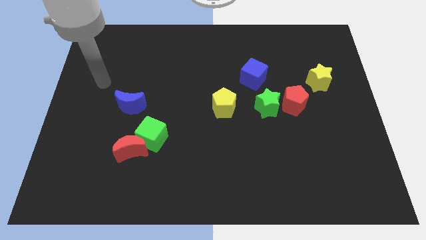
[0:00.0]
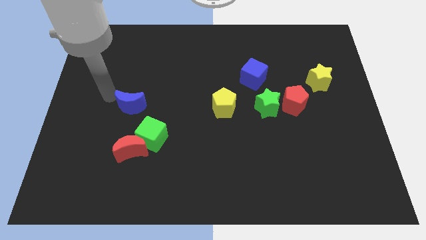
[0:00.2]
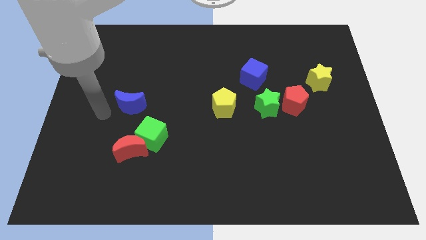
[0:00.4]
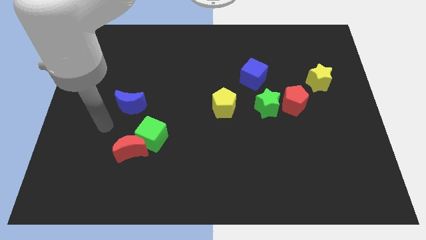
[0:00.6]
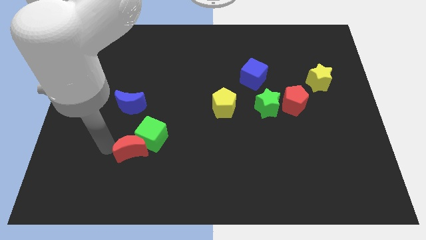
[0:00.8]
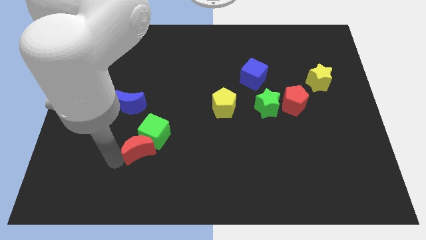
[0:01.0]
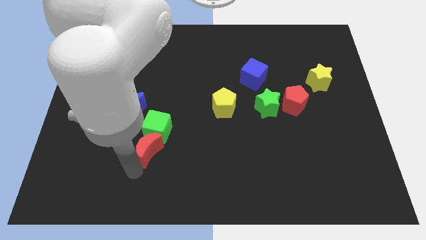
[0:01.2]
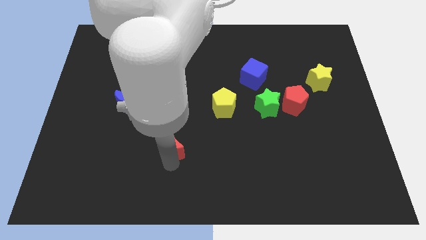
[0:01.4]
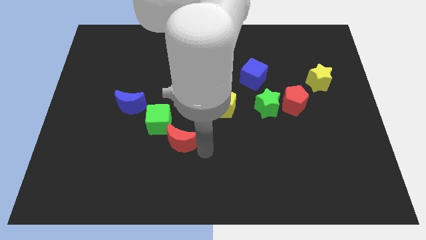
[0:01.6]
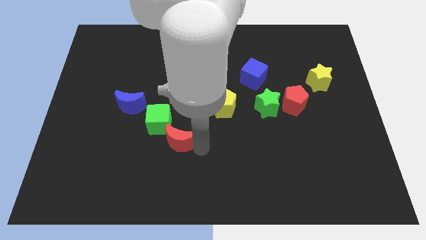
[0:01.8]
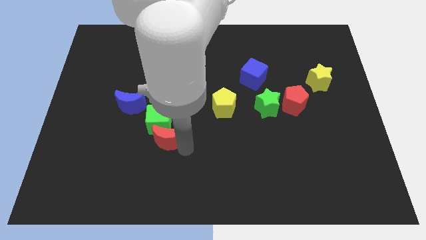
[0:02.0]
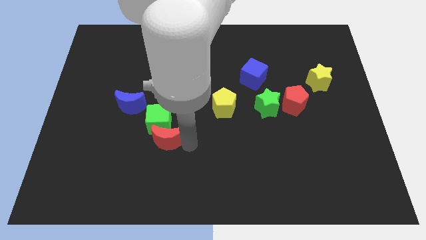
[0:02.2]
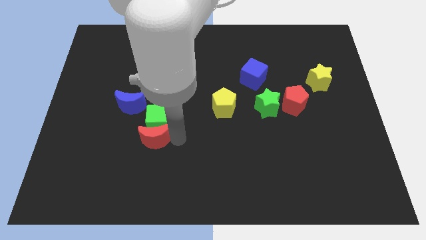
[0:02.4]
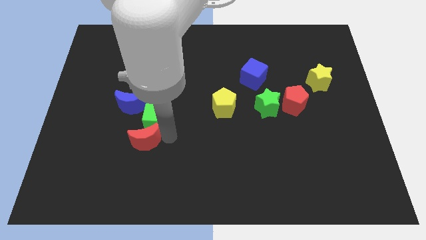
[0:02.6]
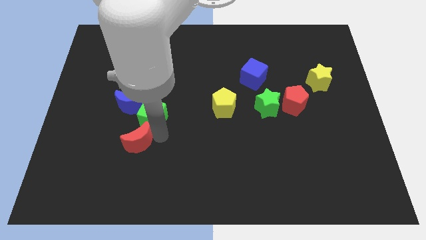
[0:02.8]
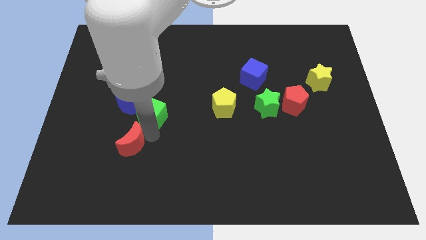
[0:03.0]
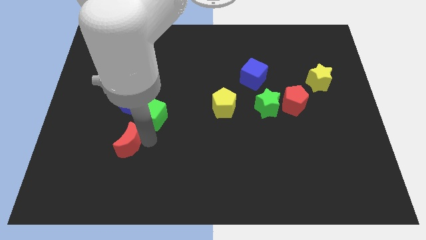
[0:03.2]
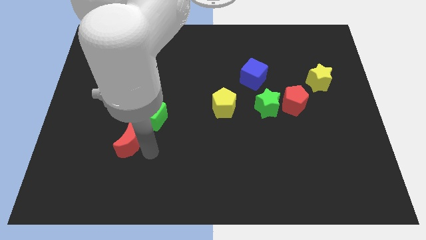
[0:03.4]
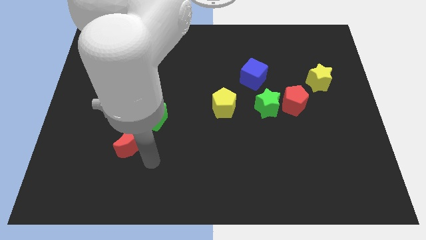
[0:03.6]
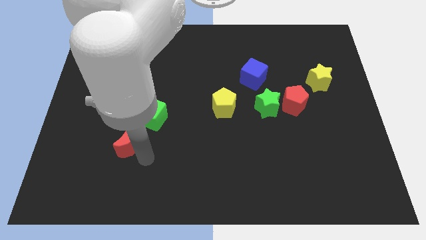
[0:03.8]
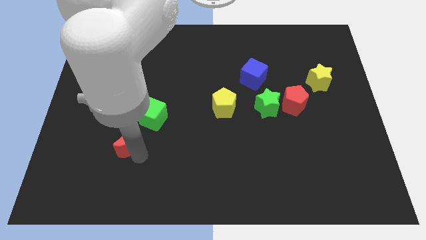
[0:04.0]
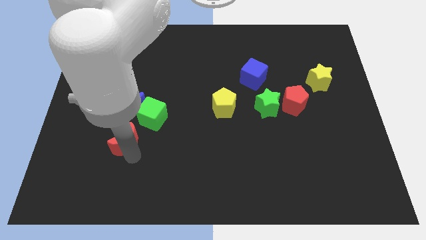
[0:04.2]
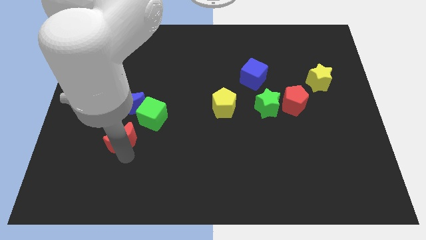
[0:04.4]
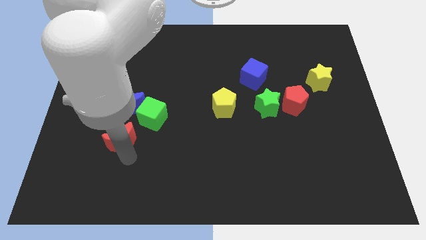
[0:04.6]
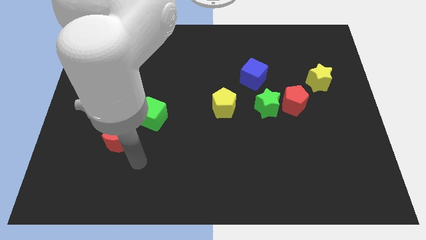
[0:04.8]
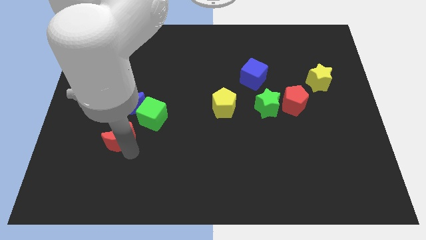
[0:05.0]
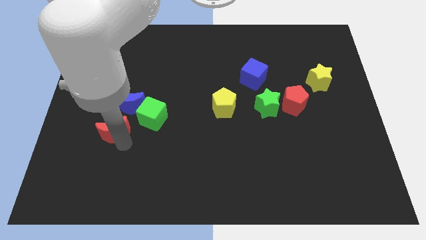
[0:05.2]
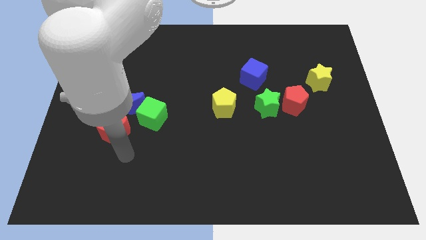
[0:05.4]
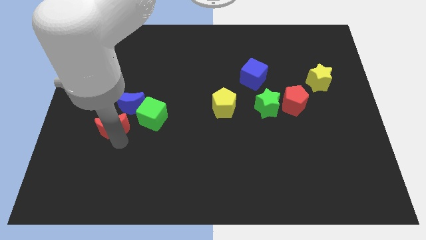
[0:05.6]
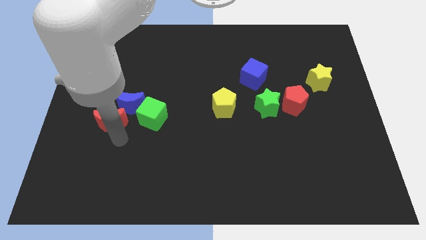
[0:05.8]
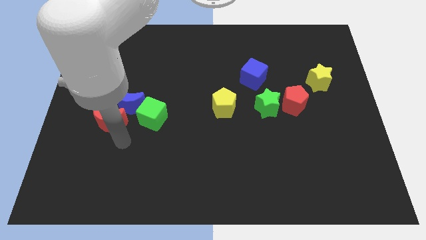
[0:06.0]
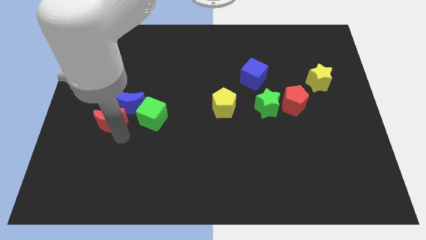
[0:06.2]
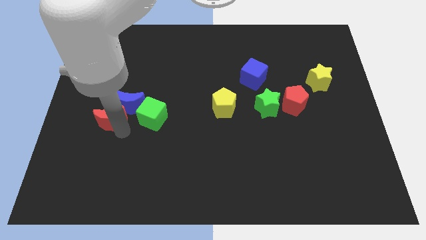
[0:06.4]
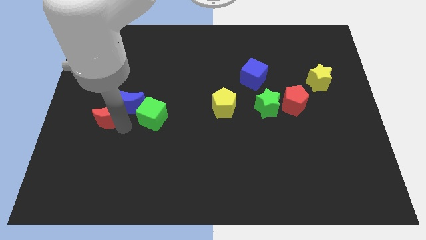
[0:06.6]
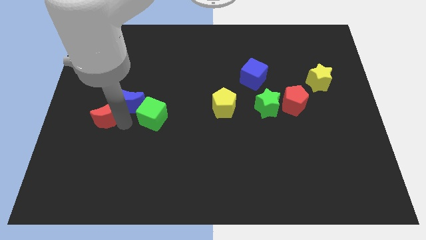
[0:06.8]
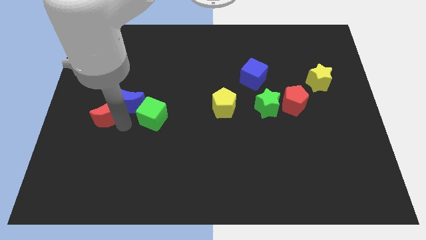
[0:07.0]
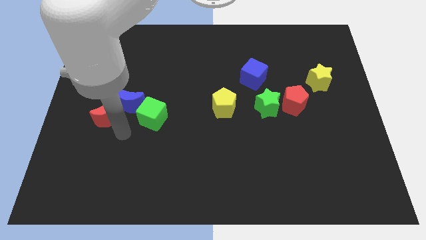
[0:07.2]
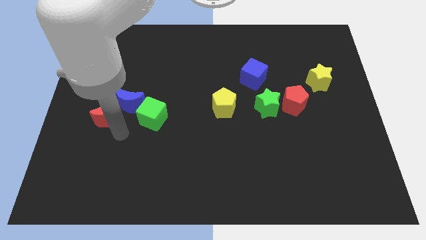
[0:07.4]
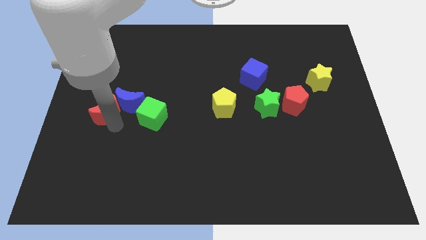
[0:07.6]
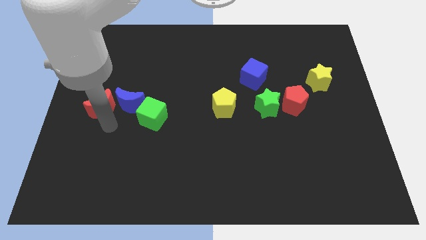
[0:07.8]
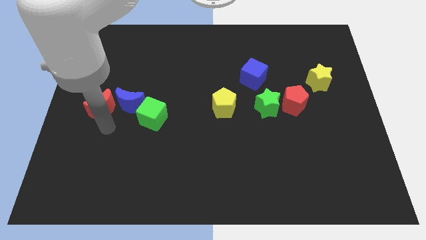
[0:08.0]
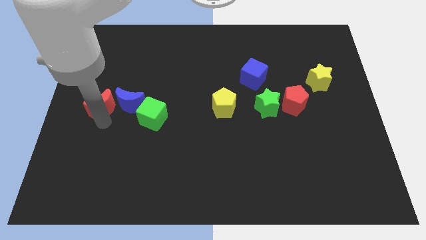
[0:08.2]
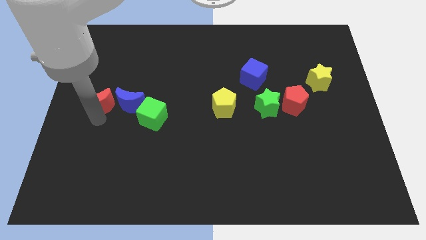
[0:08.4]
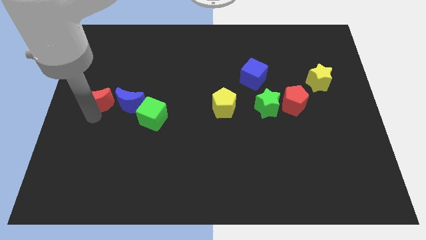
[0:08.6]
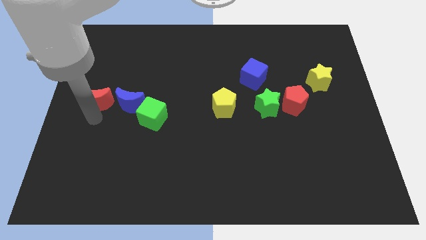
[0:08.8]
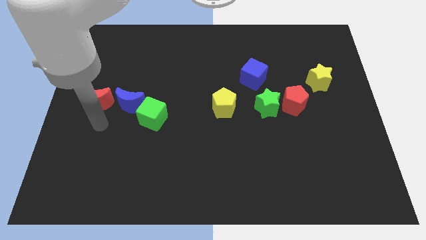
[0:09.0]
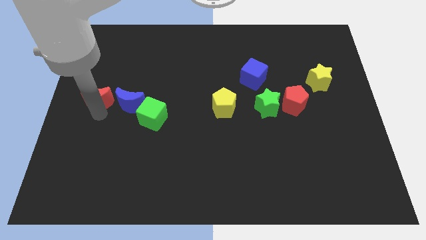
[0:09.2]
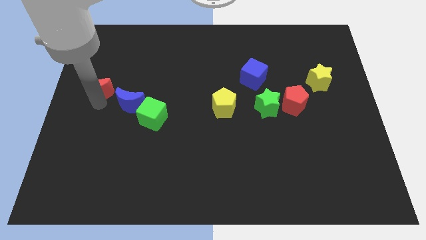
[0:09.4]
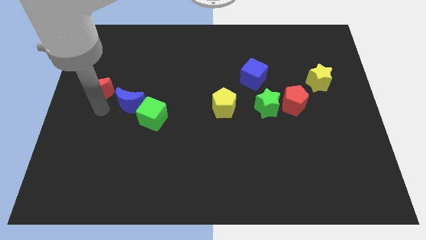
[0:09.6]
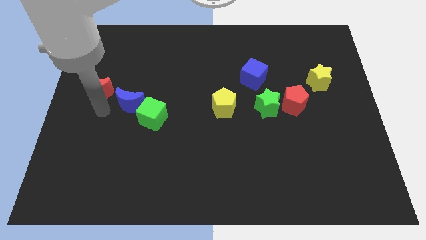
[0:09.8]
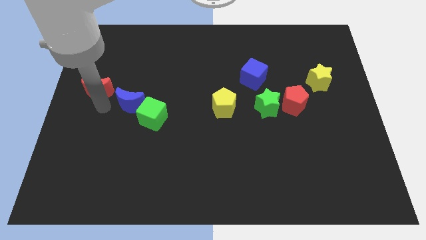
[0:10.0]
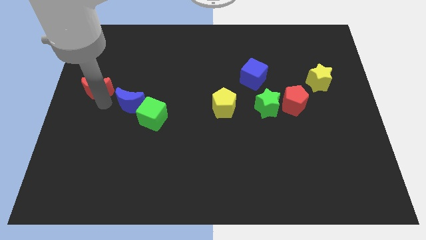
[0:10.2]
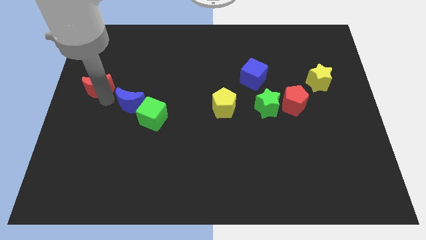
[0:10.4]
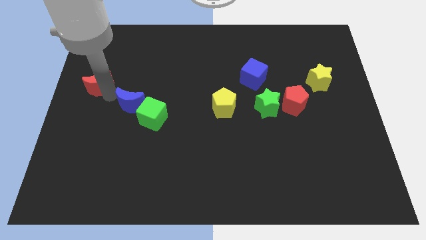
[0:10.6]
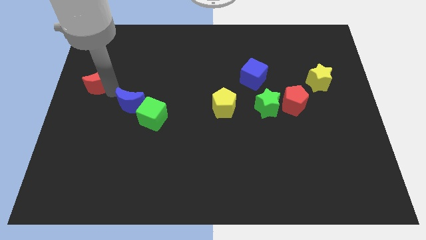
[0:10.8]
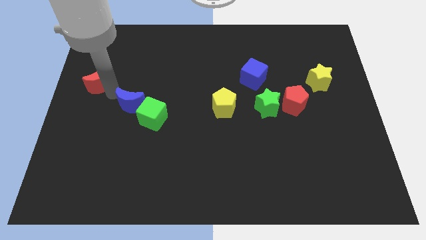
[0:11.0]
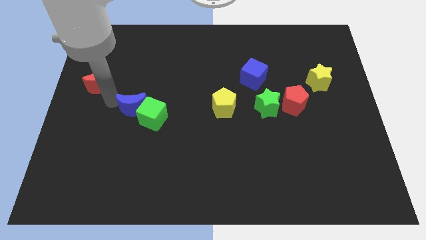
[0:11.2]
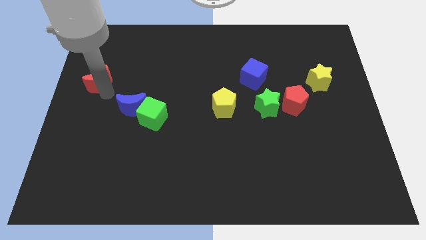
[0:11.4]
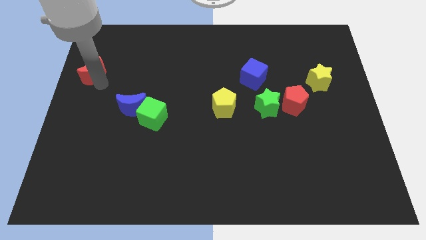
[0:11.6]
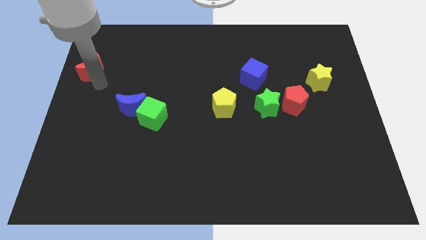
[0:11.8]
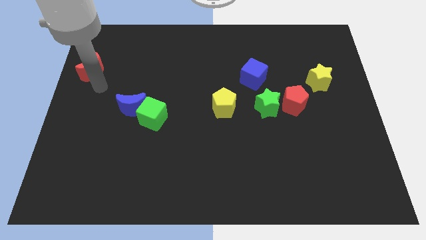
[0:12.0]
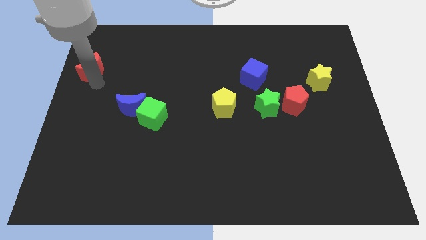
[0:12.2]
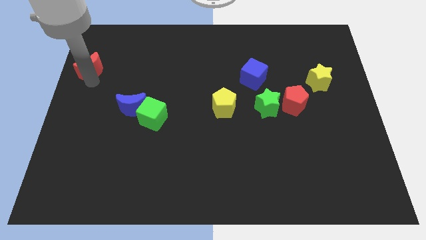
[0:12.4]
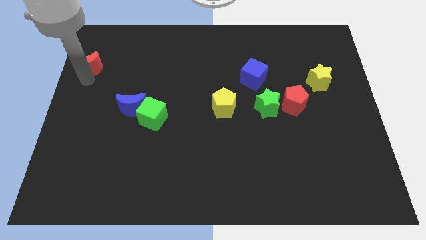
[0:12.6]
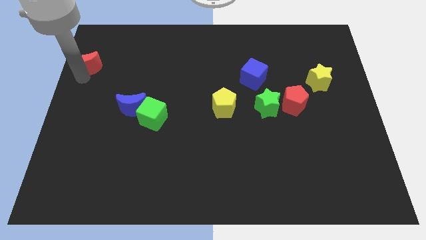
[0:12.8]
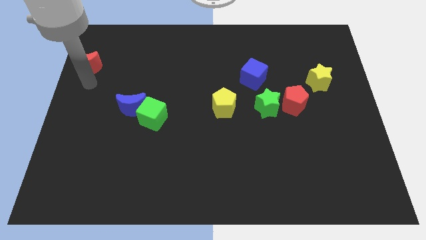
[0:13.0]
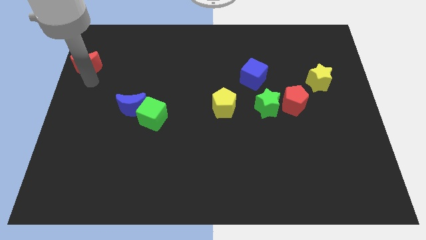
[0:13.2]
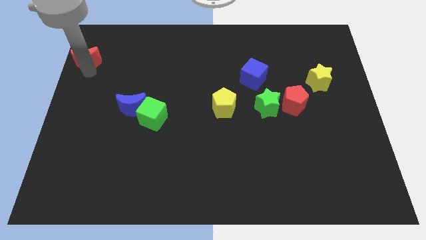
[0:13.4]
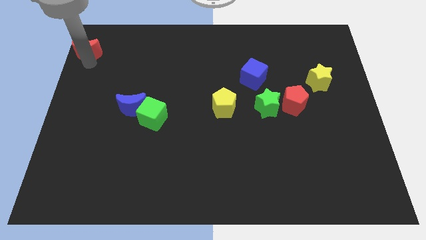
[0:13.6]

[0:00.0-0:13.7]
move the red moon to the top left of the board

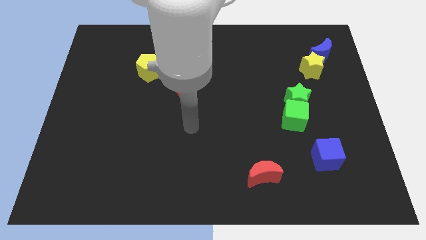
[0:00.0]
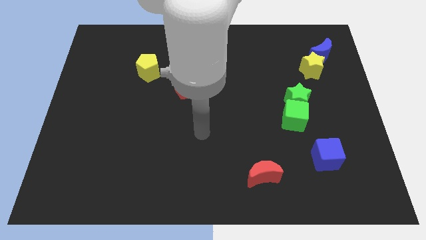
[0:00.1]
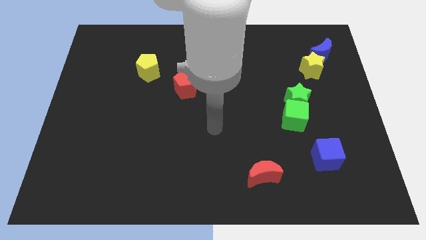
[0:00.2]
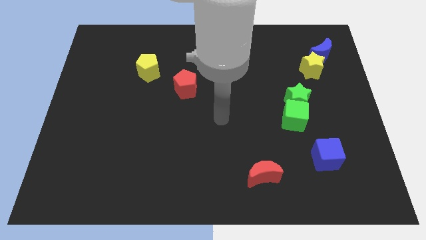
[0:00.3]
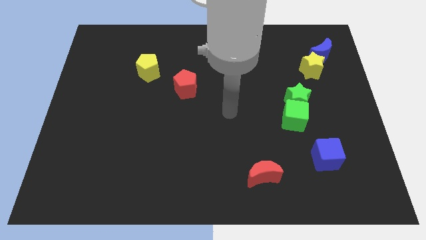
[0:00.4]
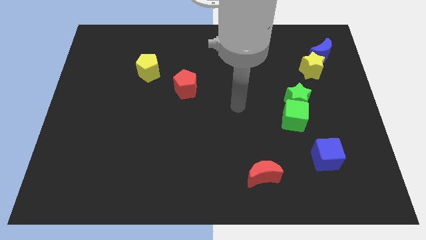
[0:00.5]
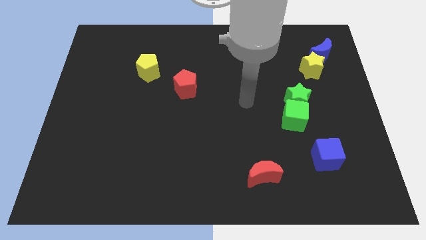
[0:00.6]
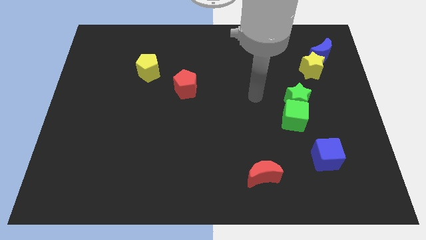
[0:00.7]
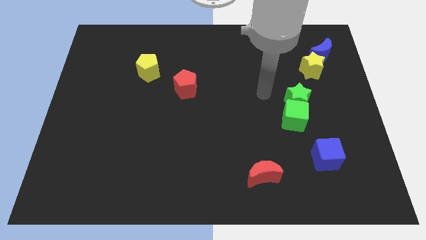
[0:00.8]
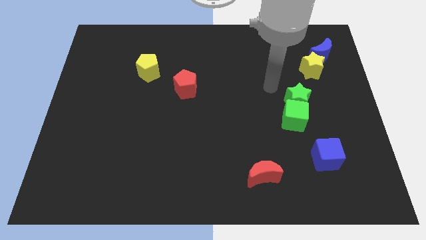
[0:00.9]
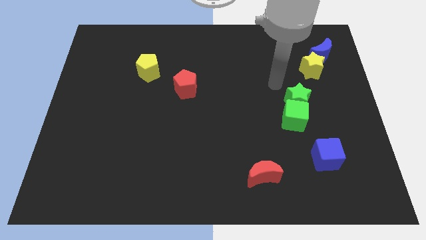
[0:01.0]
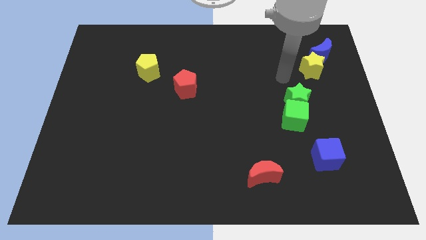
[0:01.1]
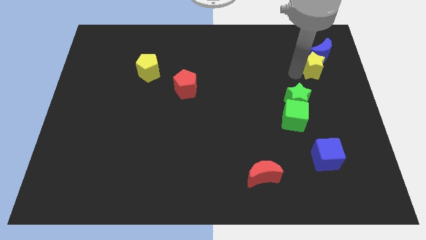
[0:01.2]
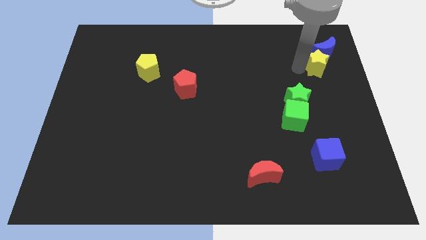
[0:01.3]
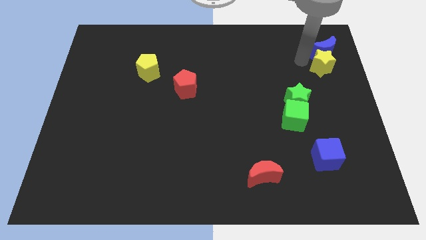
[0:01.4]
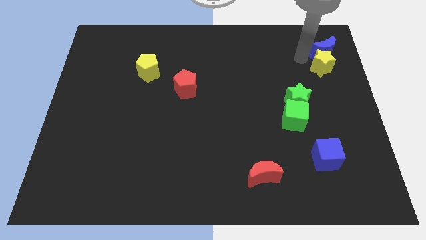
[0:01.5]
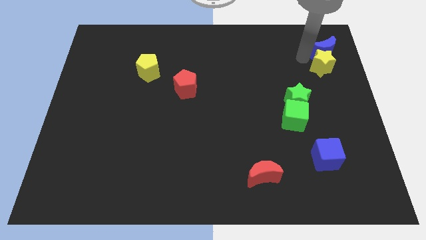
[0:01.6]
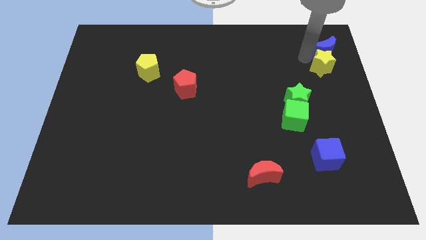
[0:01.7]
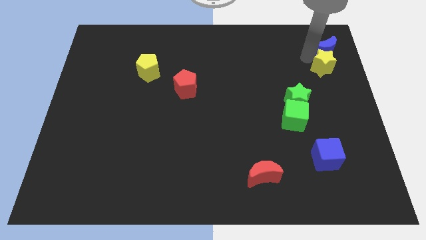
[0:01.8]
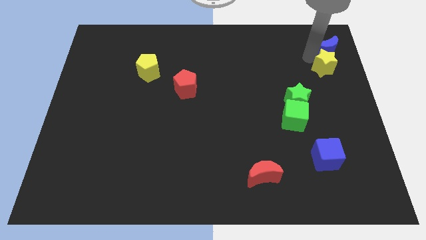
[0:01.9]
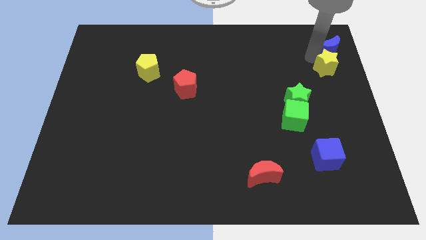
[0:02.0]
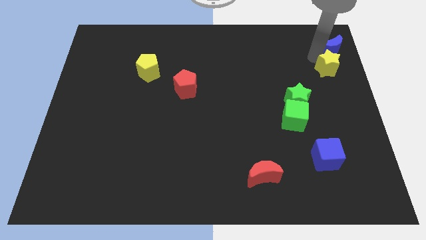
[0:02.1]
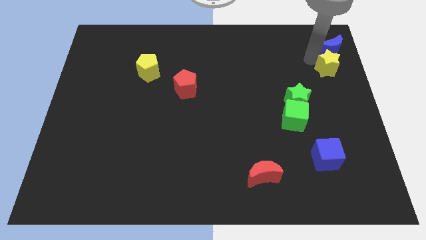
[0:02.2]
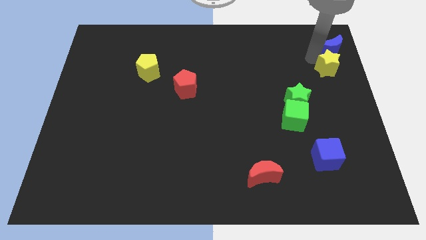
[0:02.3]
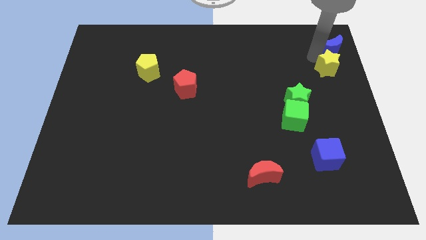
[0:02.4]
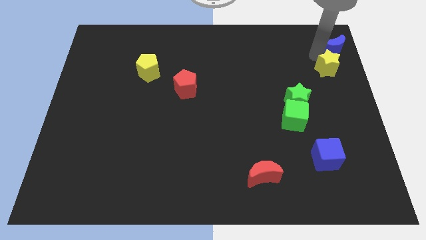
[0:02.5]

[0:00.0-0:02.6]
push the blue moon to the top right
